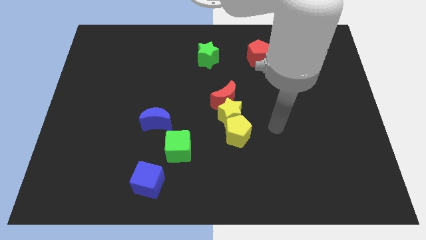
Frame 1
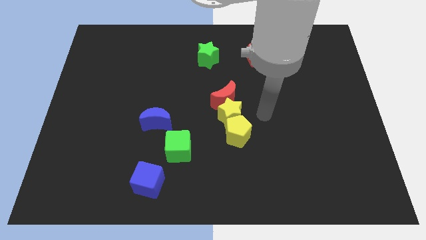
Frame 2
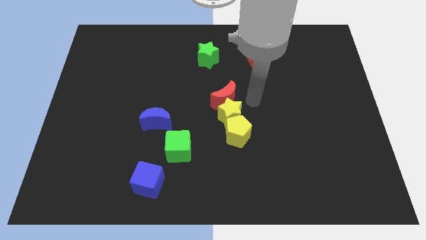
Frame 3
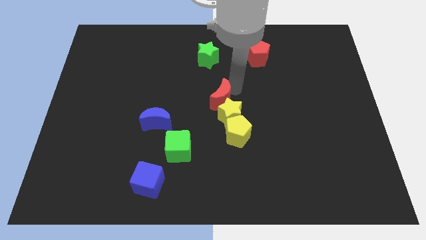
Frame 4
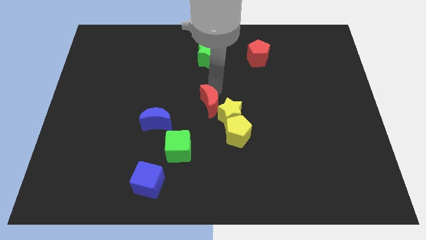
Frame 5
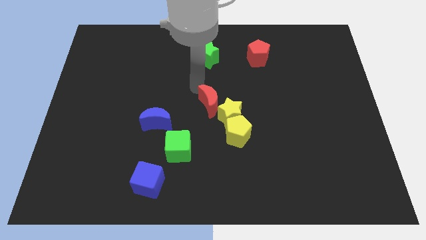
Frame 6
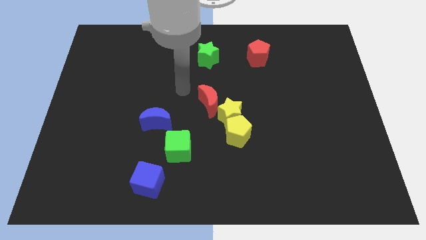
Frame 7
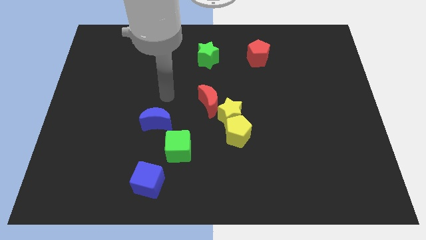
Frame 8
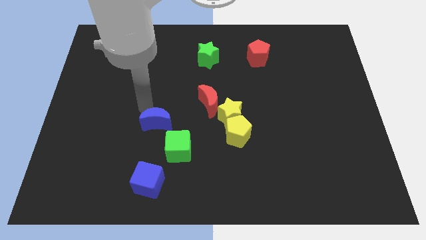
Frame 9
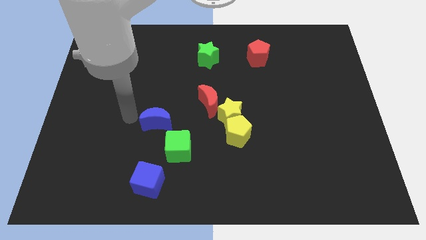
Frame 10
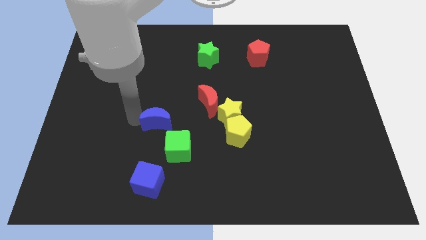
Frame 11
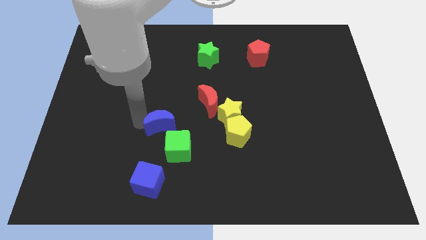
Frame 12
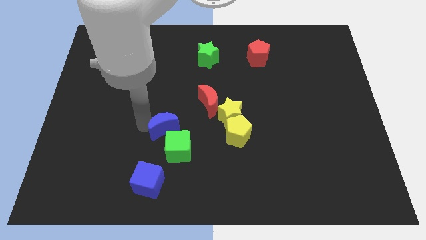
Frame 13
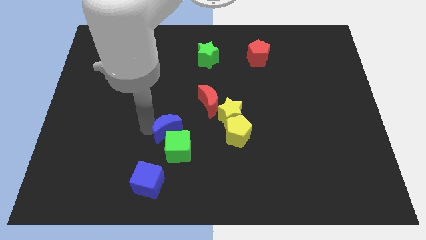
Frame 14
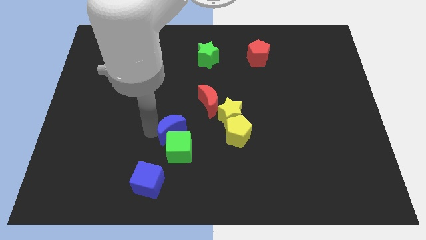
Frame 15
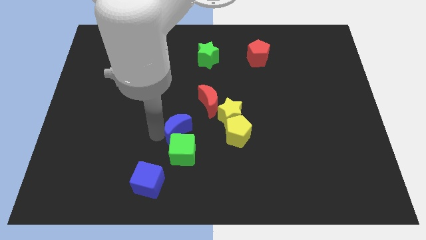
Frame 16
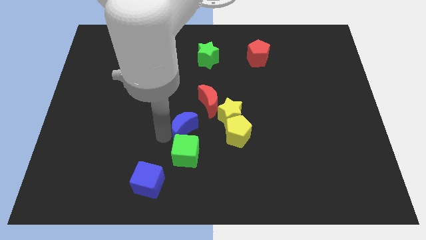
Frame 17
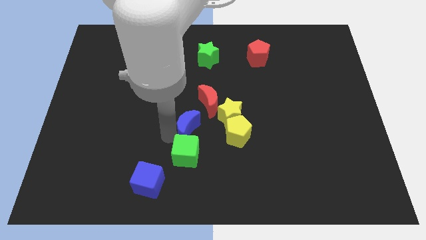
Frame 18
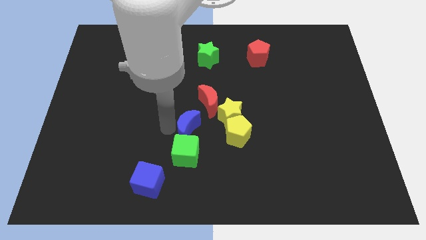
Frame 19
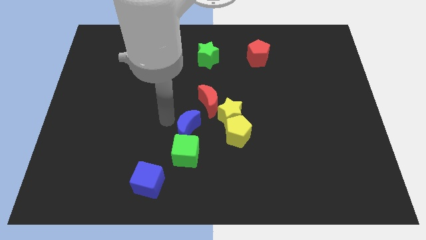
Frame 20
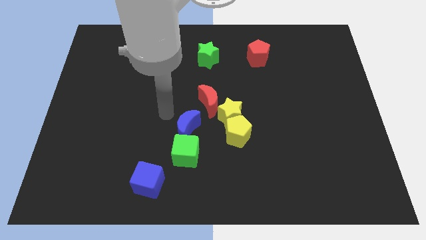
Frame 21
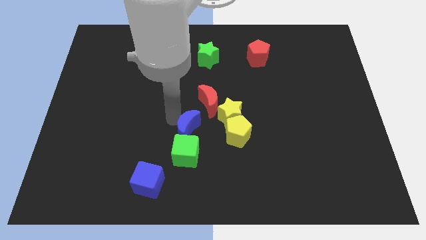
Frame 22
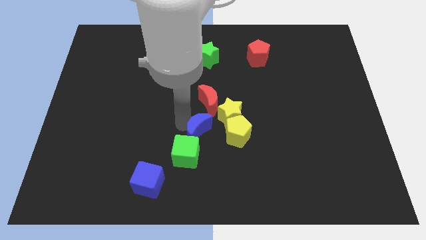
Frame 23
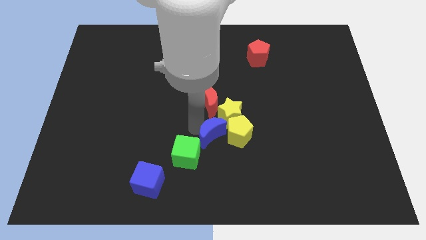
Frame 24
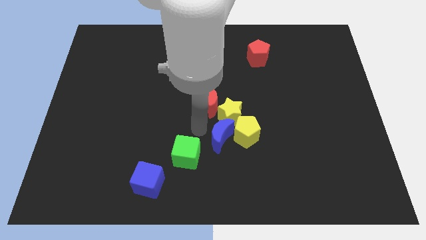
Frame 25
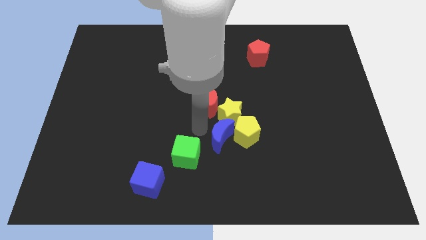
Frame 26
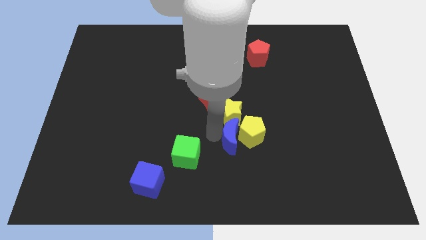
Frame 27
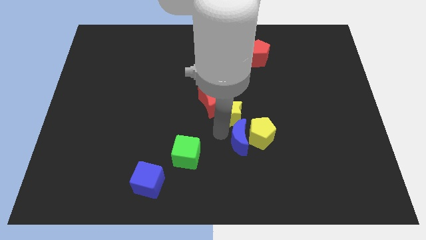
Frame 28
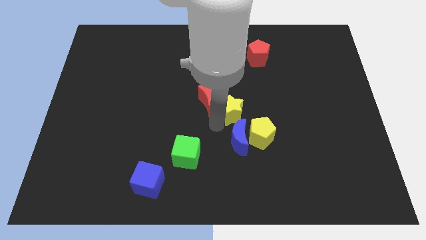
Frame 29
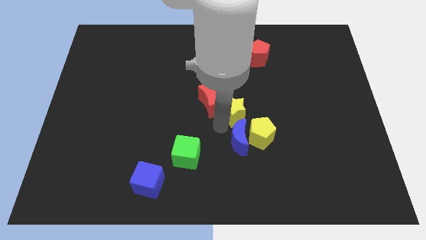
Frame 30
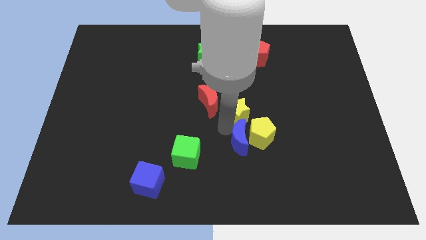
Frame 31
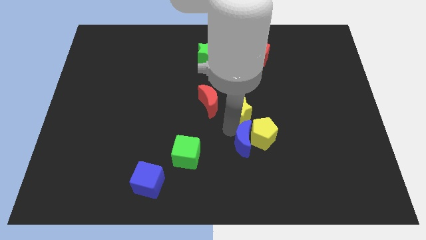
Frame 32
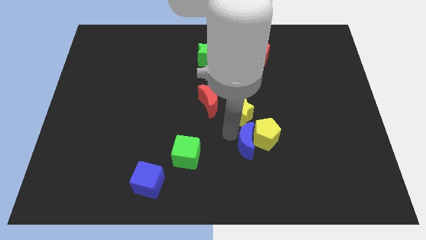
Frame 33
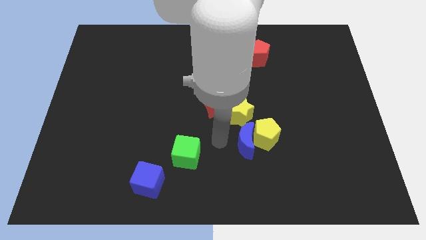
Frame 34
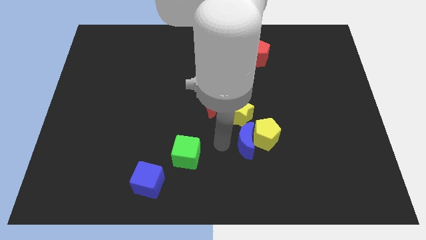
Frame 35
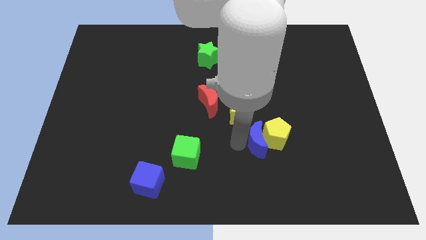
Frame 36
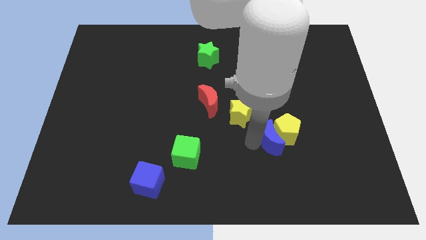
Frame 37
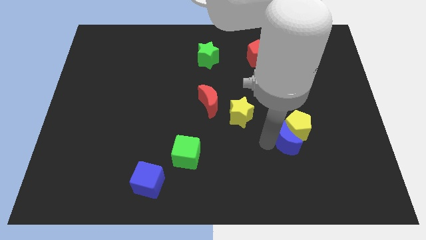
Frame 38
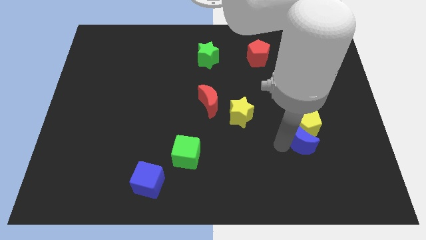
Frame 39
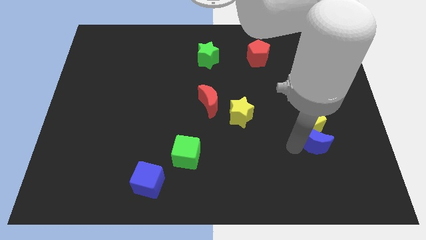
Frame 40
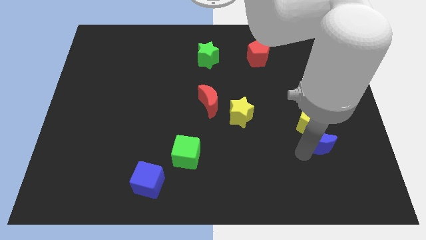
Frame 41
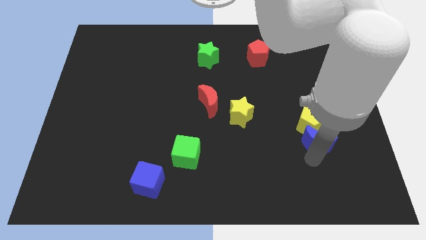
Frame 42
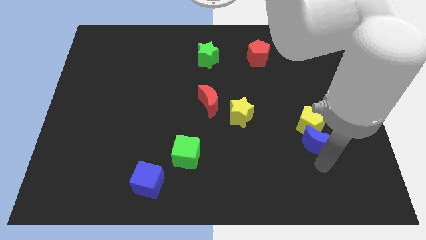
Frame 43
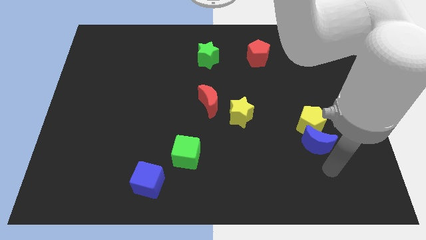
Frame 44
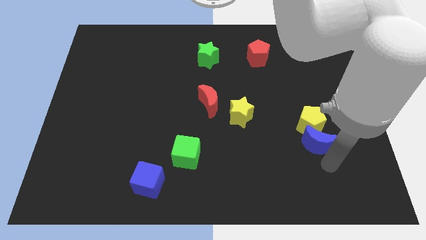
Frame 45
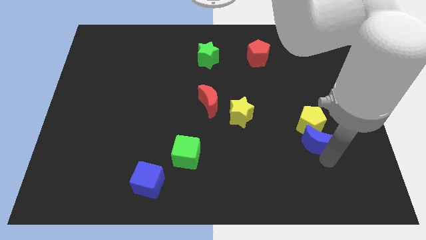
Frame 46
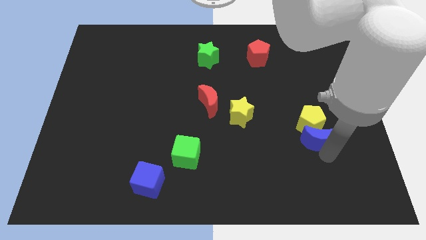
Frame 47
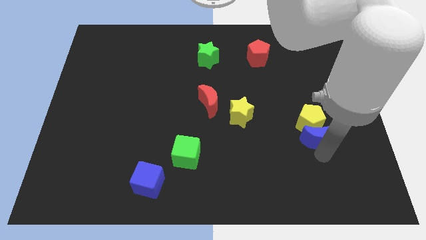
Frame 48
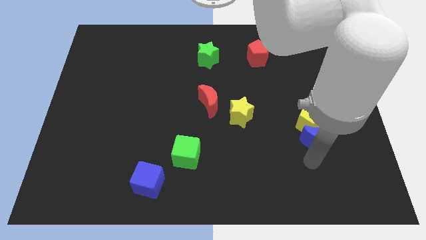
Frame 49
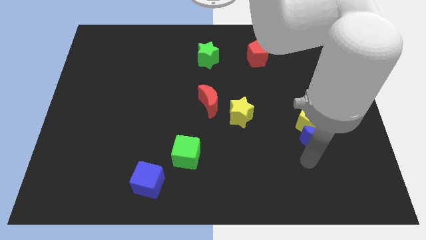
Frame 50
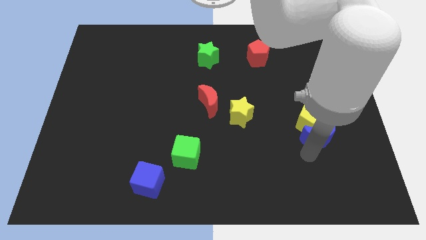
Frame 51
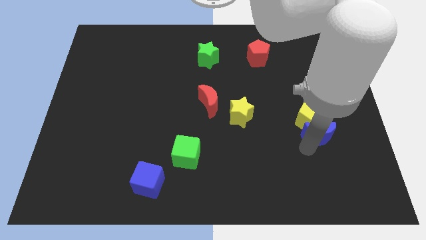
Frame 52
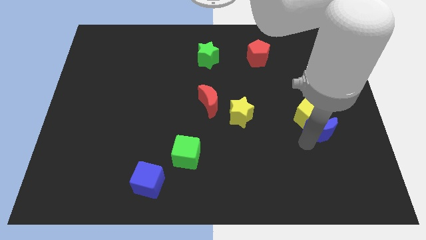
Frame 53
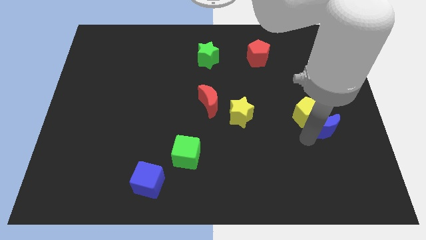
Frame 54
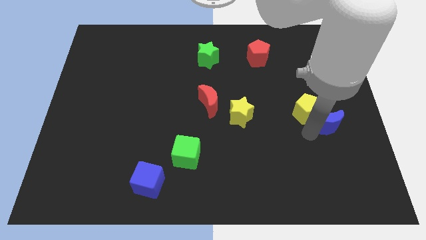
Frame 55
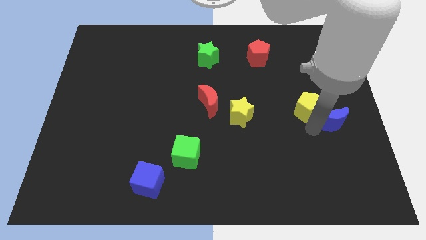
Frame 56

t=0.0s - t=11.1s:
slide the blue moon to the center right

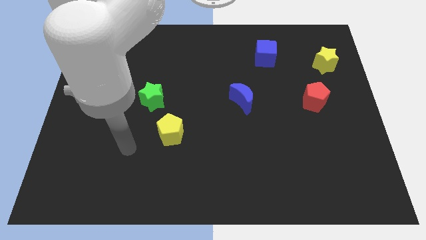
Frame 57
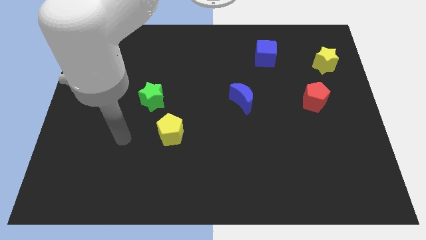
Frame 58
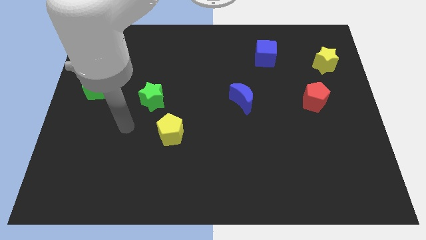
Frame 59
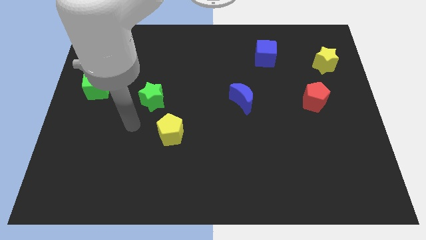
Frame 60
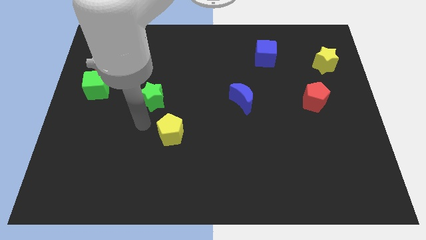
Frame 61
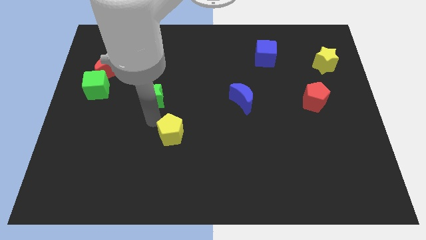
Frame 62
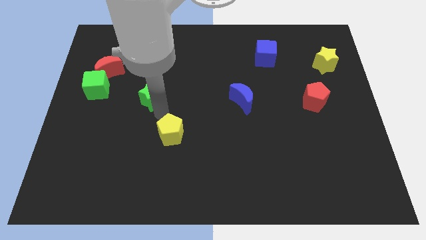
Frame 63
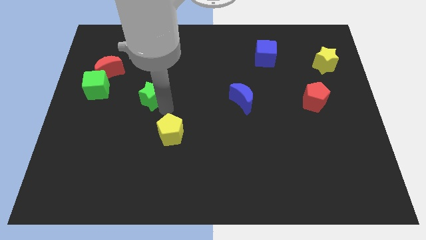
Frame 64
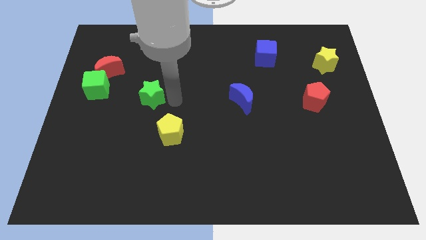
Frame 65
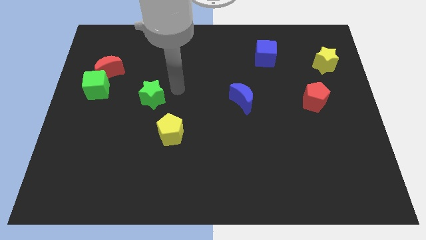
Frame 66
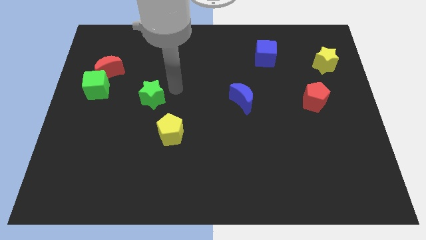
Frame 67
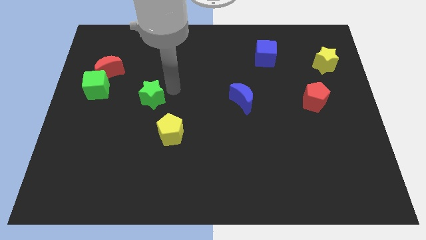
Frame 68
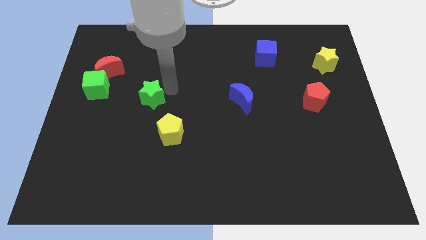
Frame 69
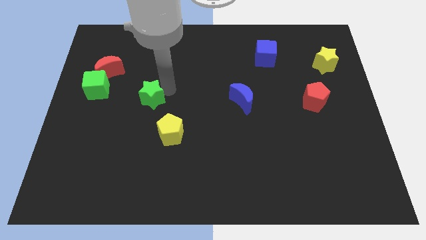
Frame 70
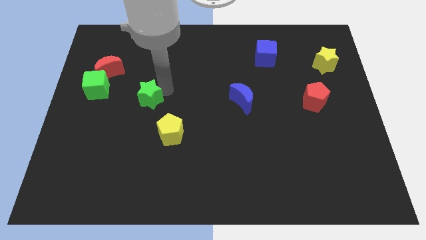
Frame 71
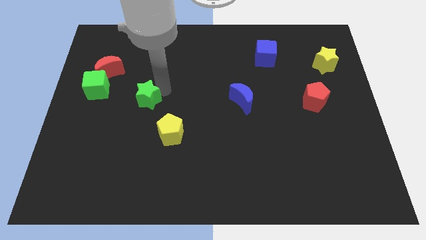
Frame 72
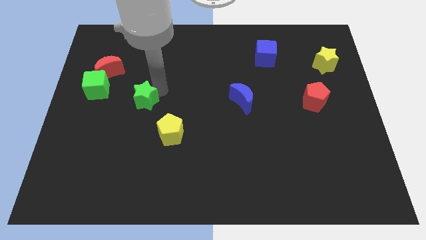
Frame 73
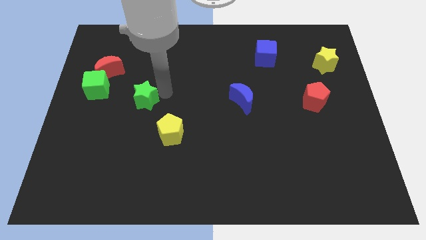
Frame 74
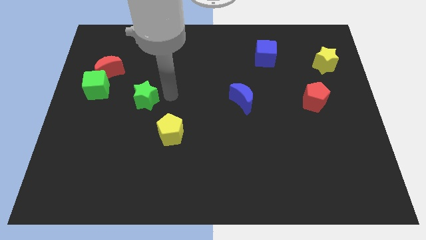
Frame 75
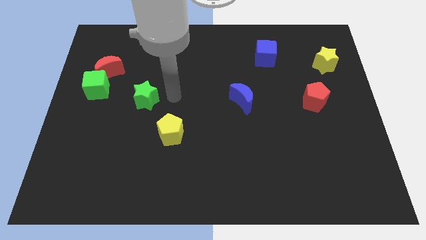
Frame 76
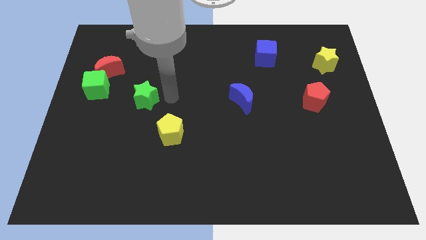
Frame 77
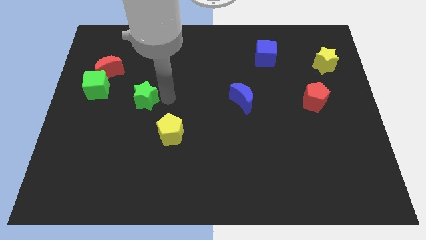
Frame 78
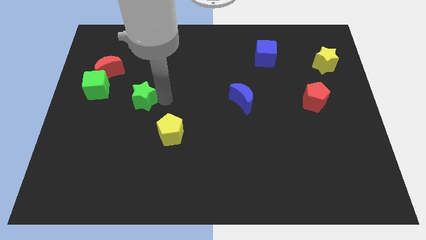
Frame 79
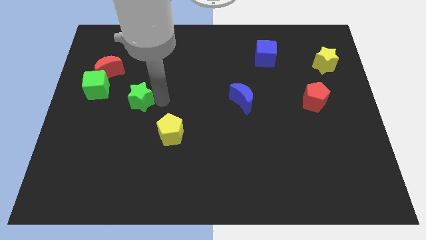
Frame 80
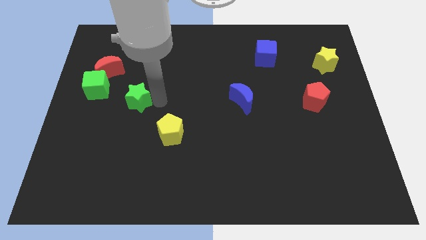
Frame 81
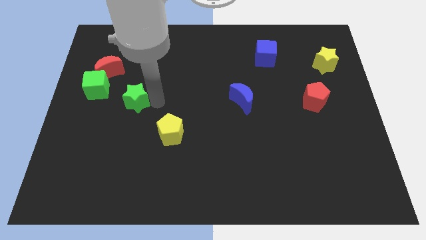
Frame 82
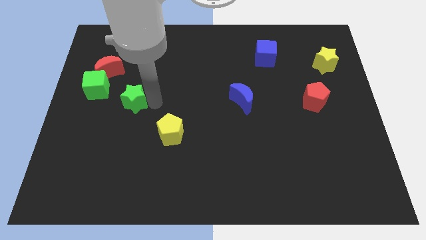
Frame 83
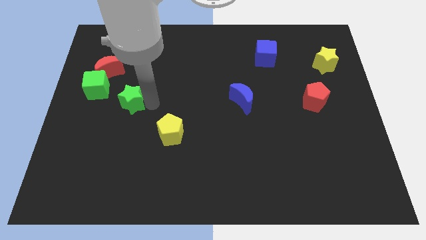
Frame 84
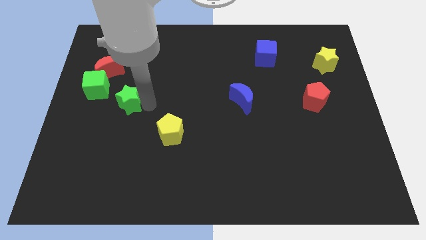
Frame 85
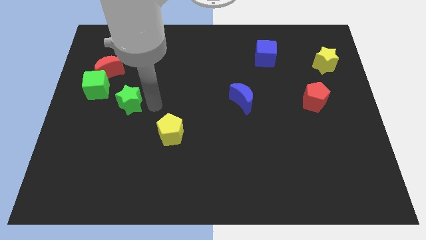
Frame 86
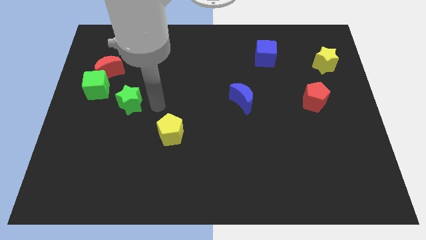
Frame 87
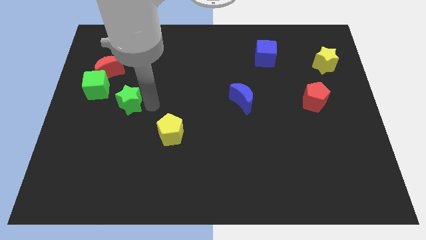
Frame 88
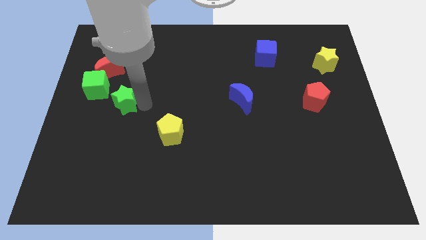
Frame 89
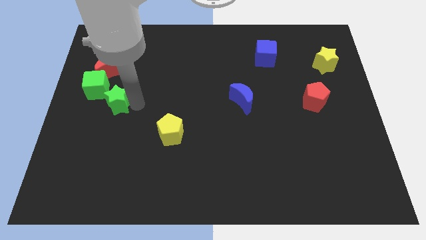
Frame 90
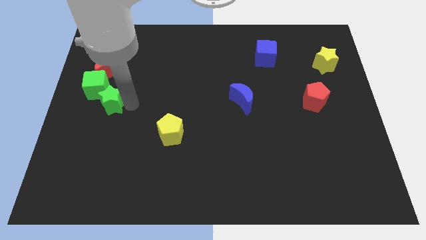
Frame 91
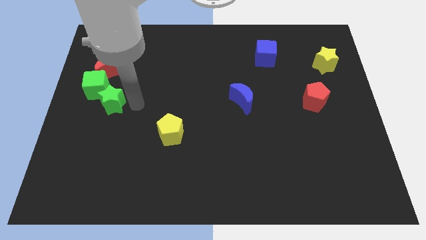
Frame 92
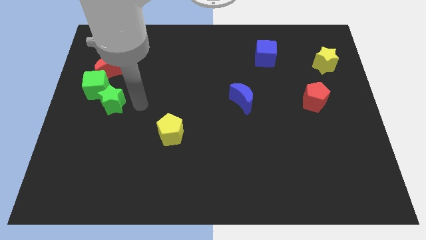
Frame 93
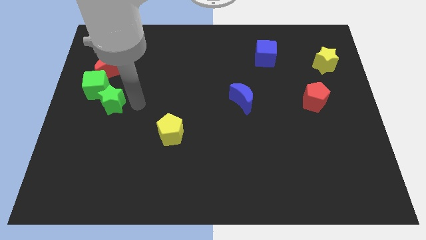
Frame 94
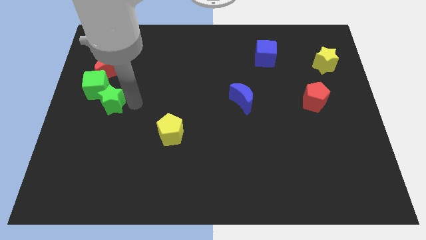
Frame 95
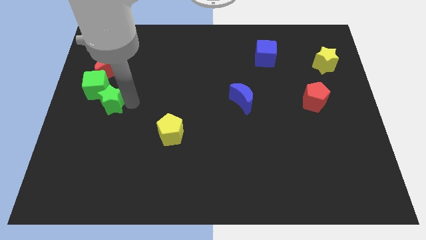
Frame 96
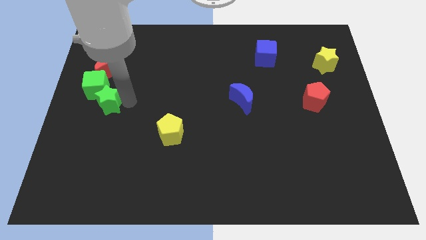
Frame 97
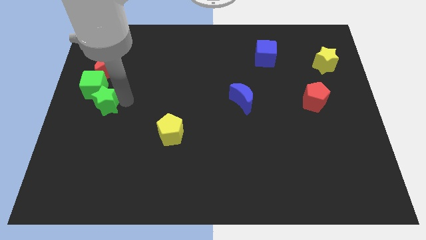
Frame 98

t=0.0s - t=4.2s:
push the green star to the left side of the board
